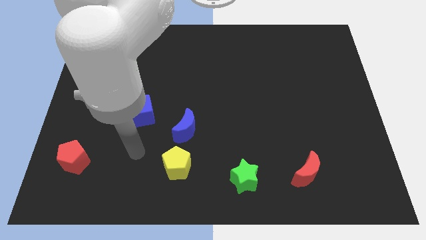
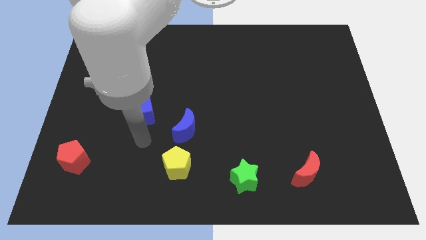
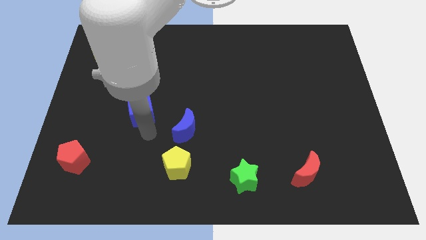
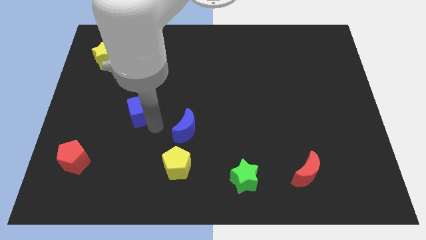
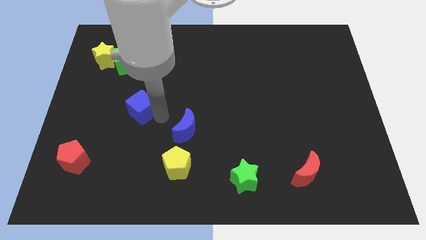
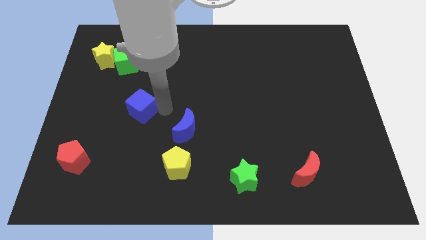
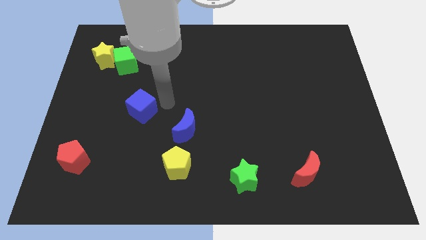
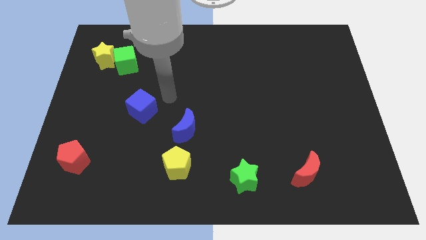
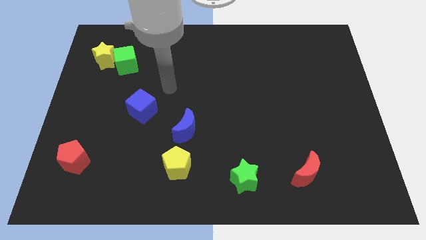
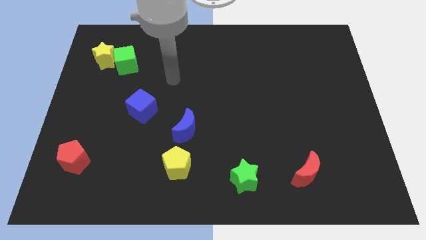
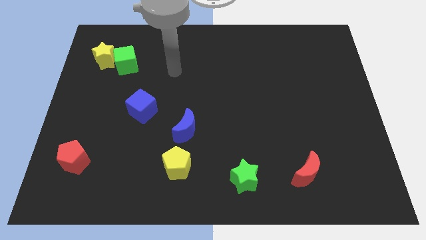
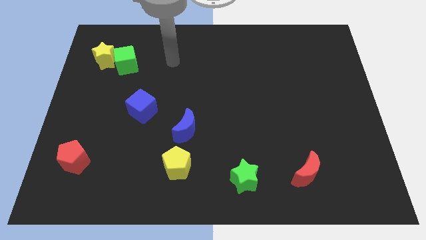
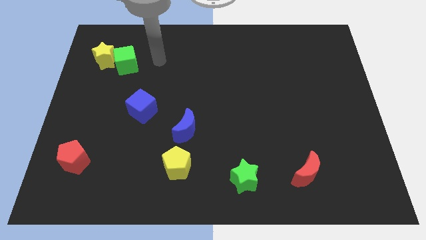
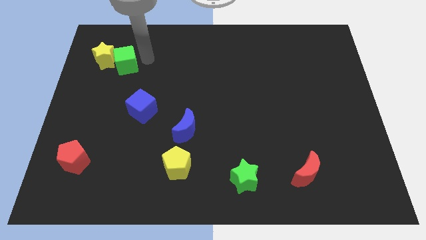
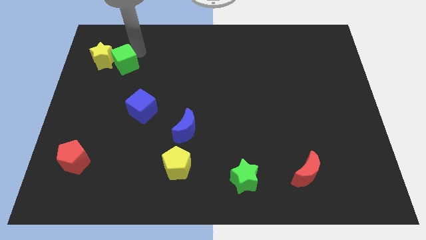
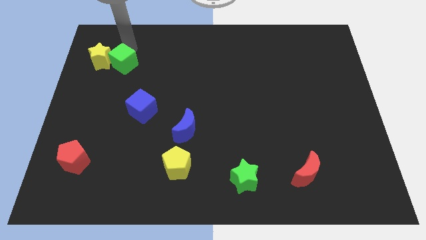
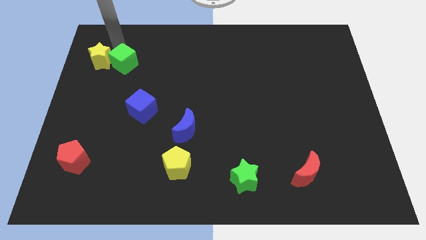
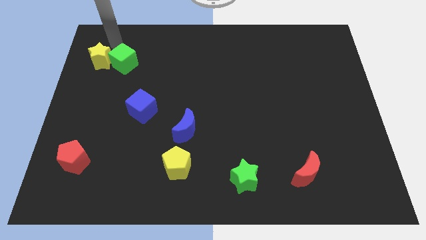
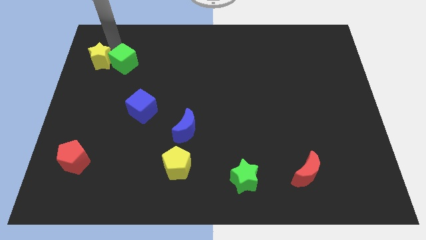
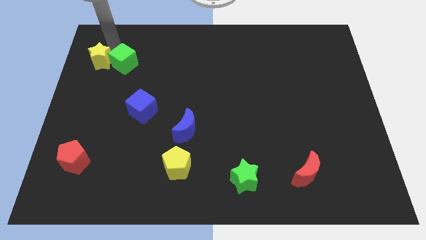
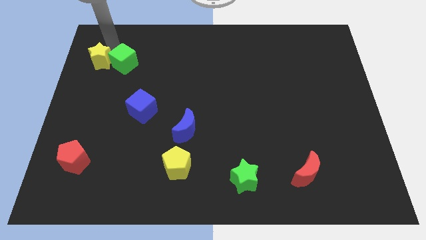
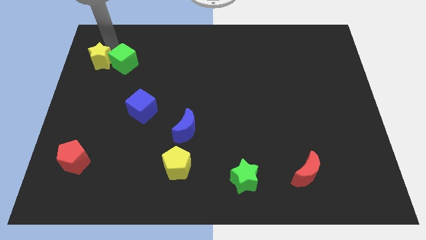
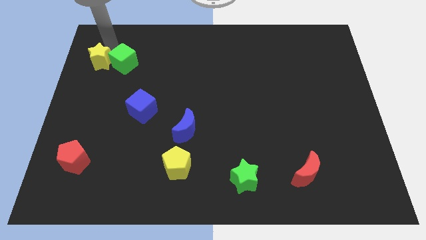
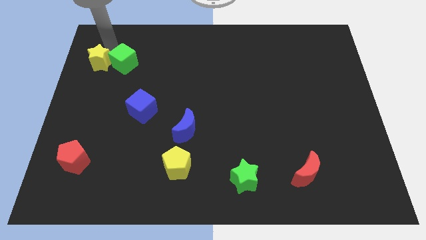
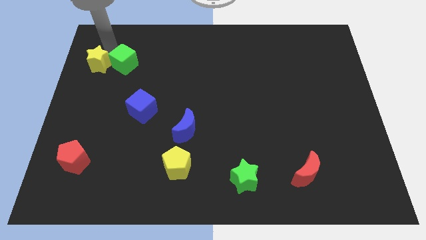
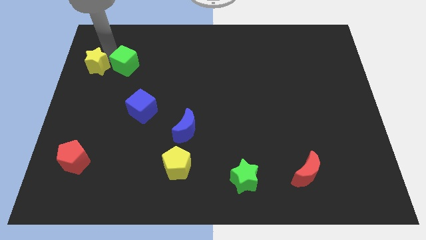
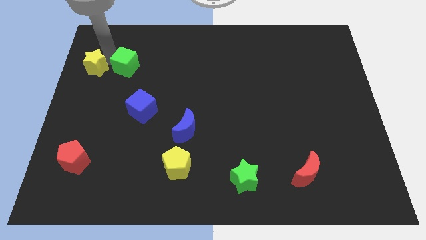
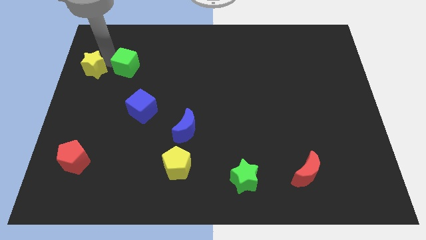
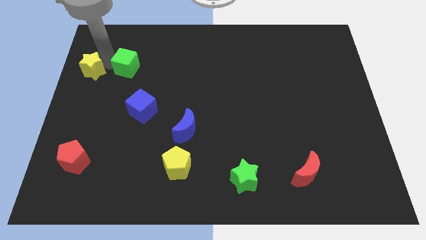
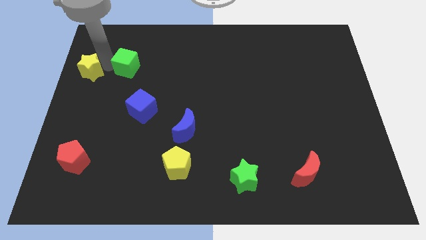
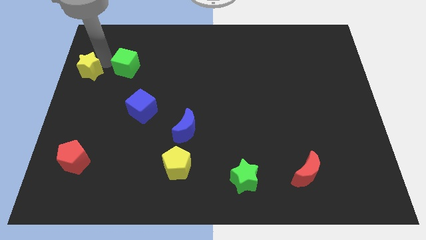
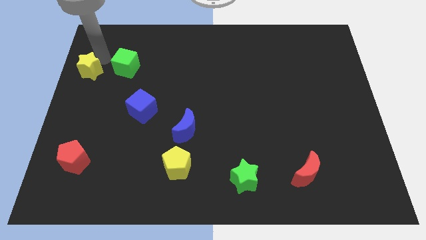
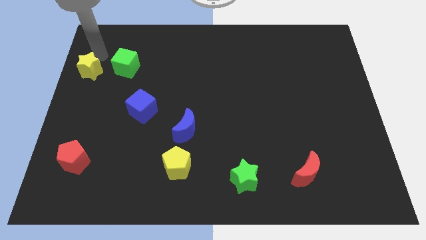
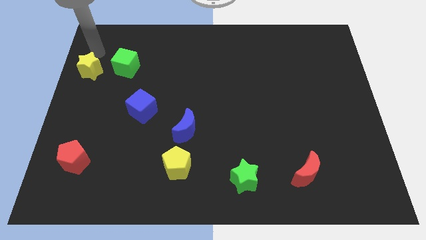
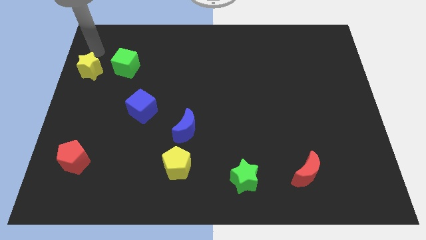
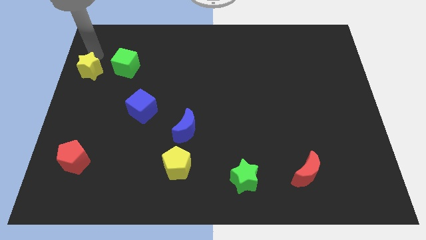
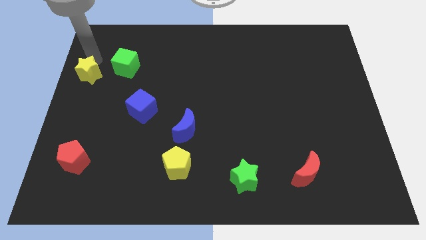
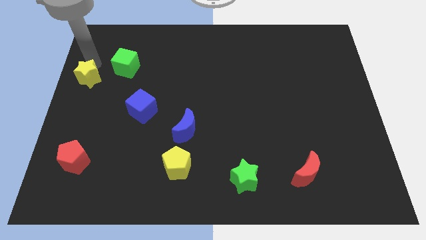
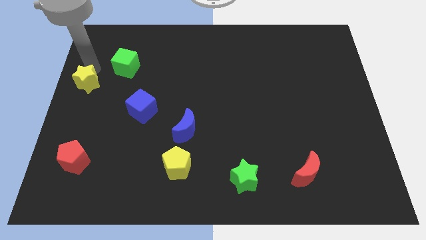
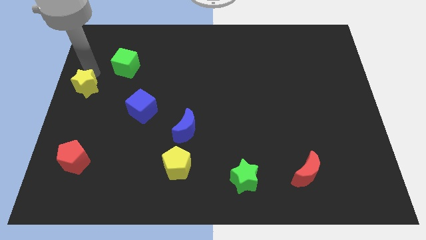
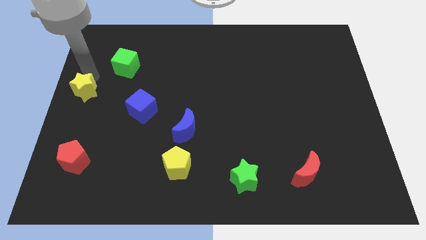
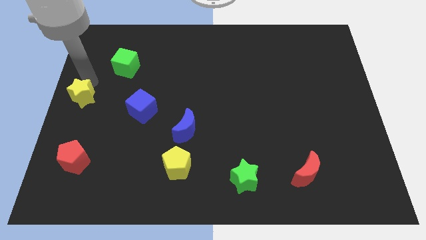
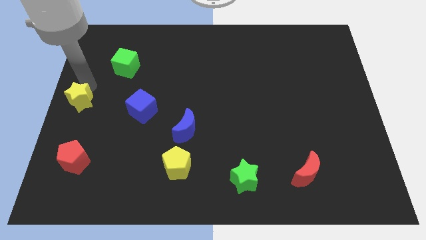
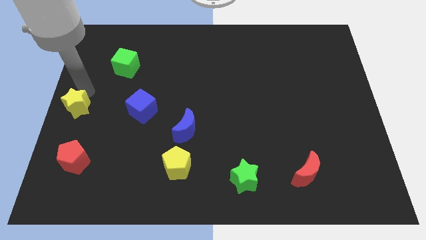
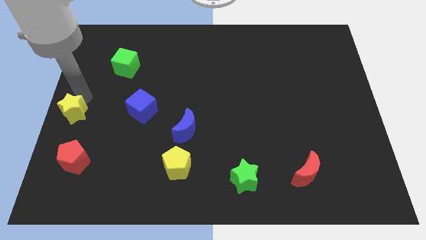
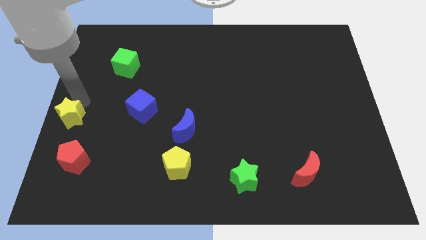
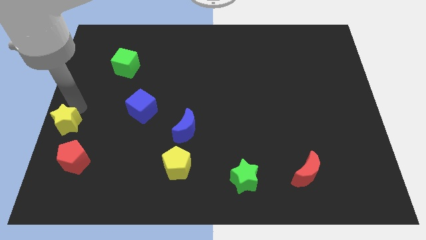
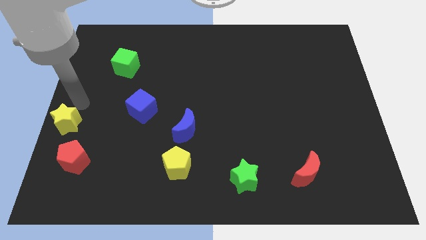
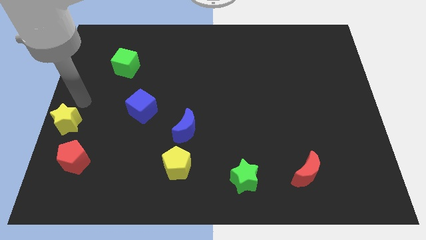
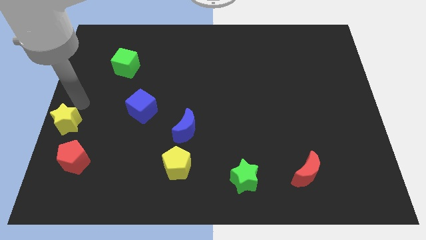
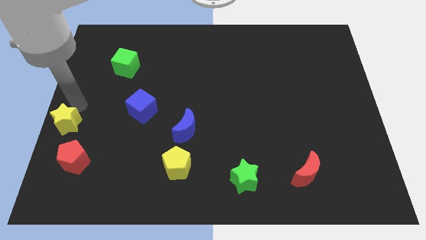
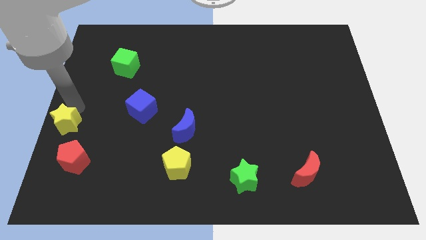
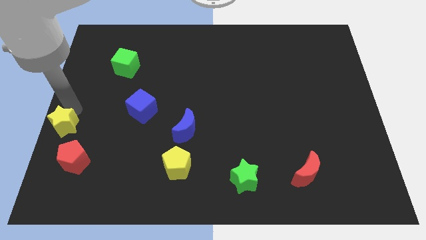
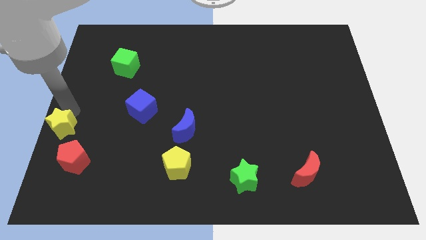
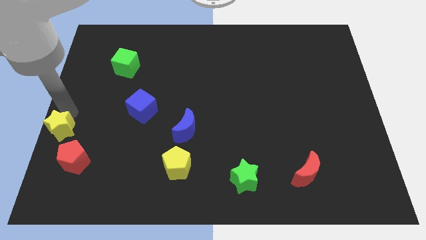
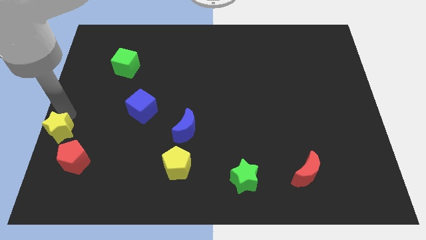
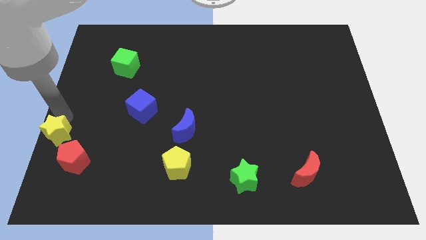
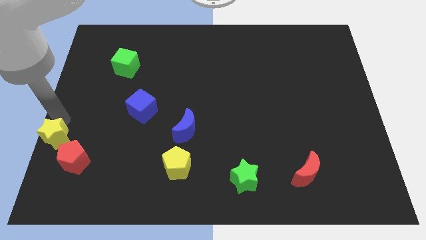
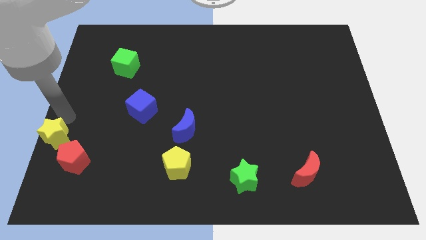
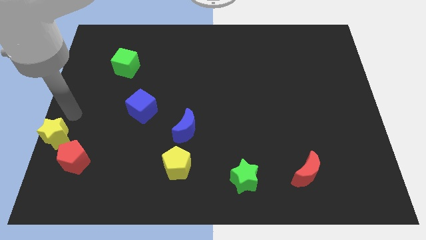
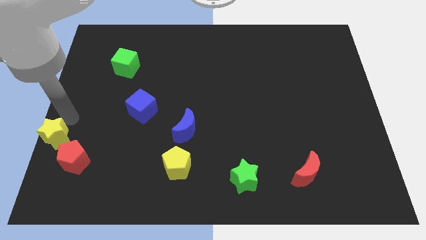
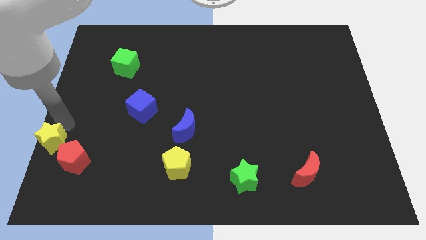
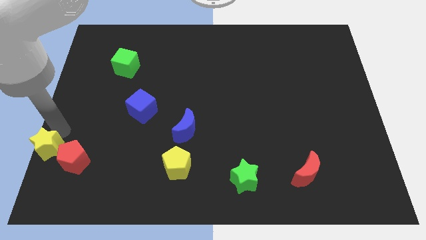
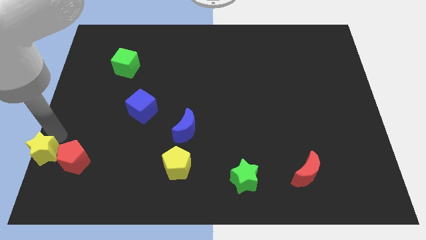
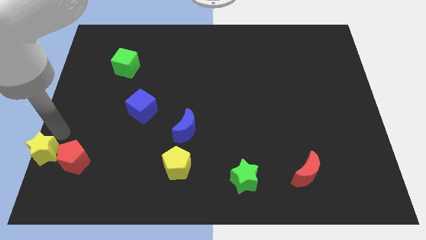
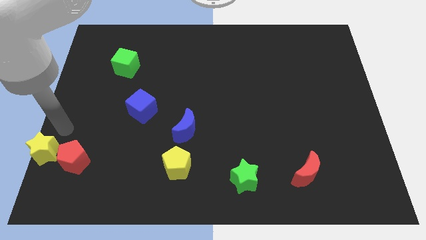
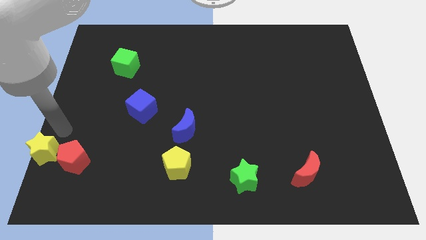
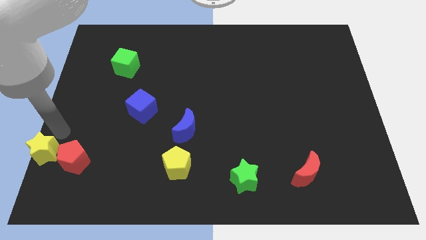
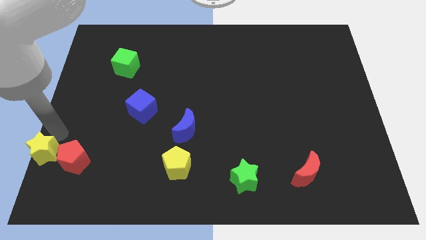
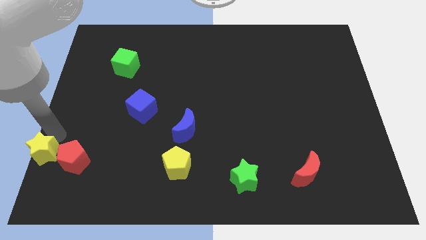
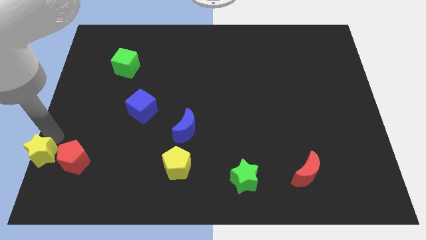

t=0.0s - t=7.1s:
move the yellow star to the bottom left
